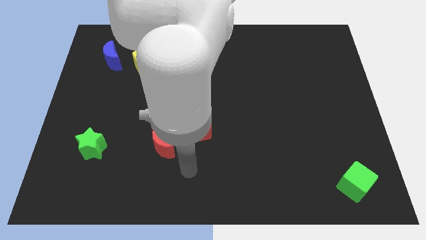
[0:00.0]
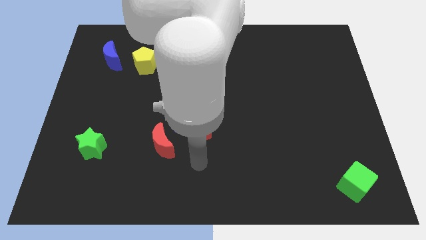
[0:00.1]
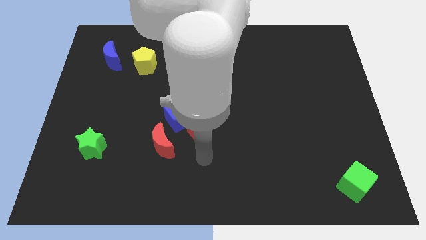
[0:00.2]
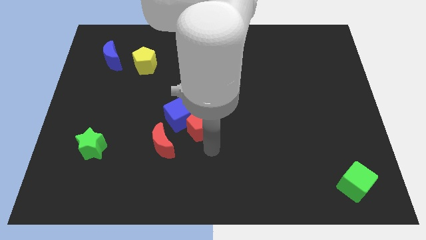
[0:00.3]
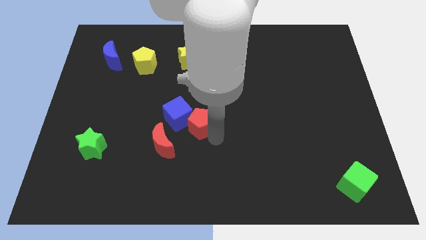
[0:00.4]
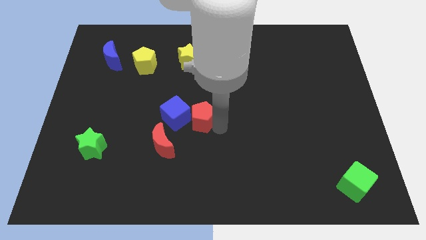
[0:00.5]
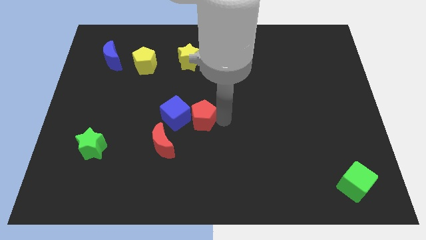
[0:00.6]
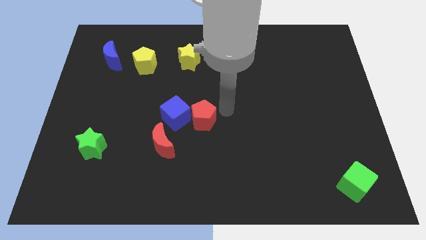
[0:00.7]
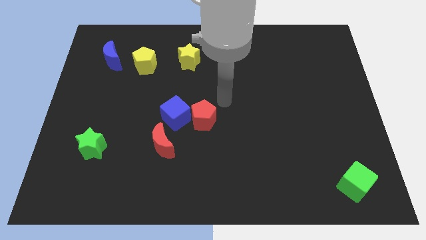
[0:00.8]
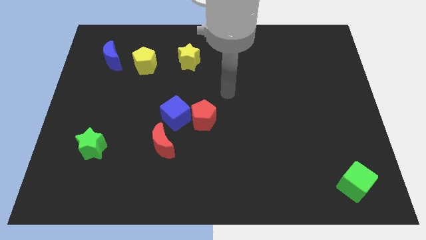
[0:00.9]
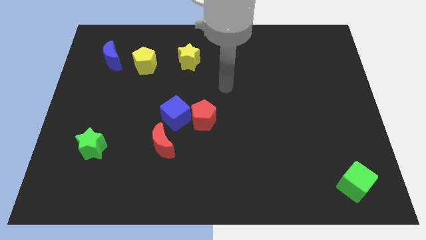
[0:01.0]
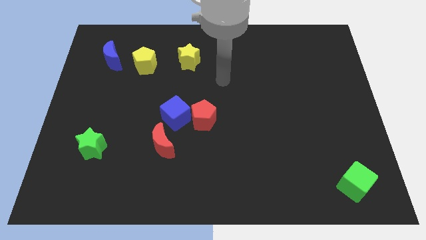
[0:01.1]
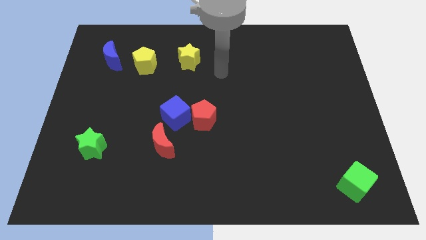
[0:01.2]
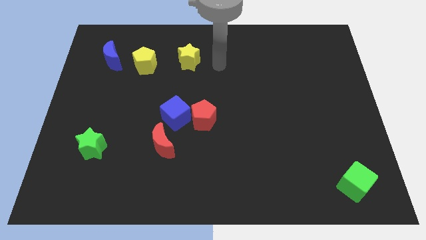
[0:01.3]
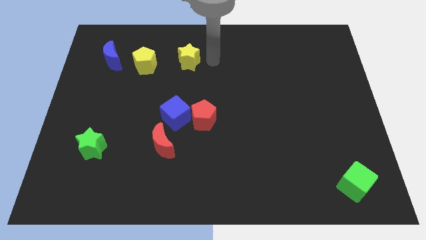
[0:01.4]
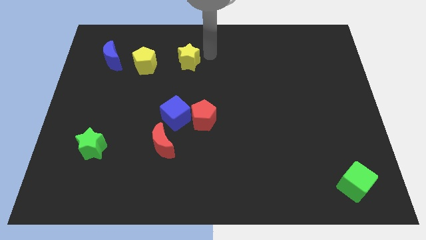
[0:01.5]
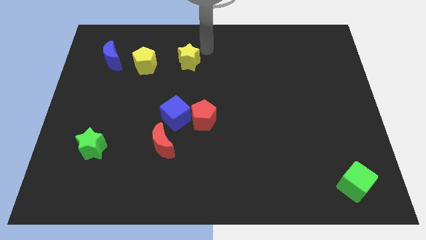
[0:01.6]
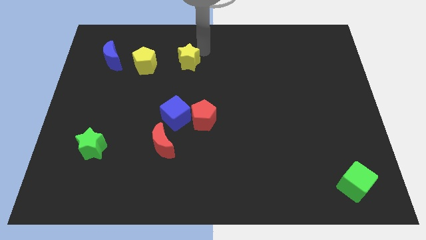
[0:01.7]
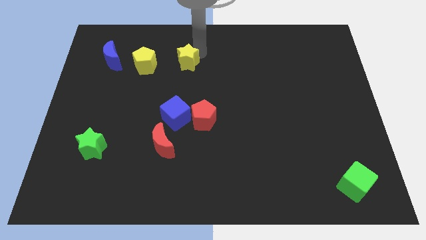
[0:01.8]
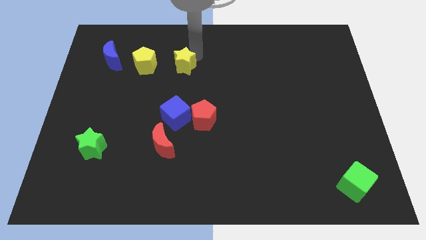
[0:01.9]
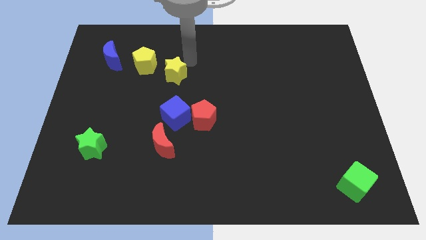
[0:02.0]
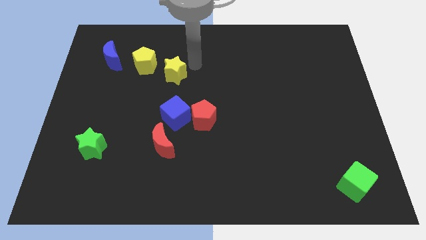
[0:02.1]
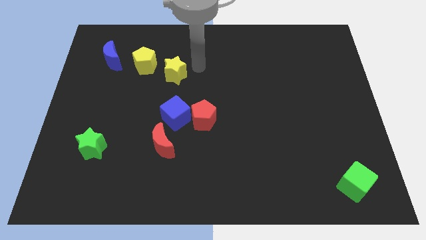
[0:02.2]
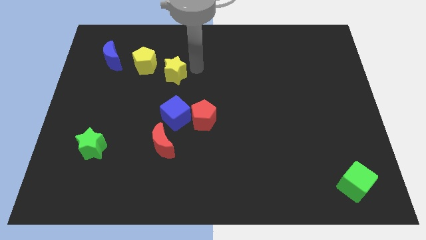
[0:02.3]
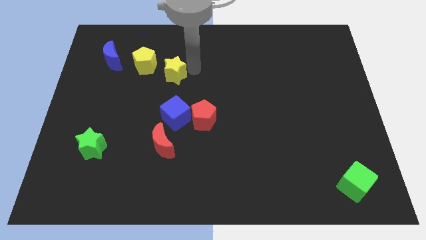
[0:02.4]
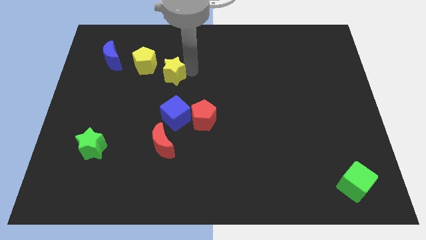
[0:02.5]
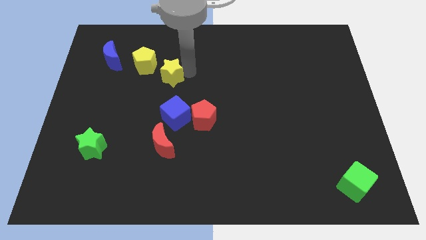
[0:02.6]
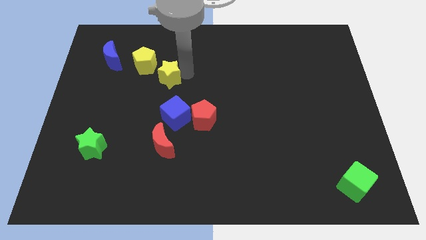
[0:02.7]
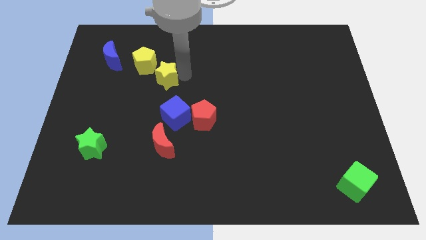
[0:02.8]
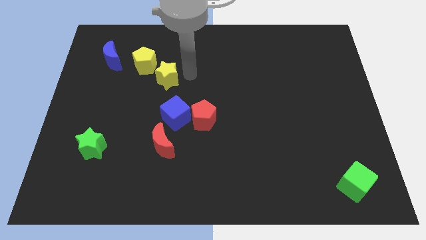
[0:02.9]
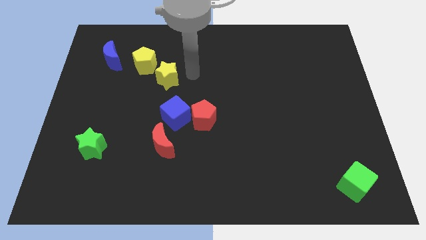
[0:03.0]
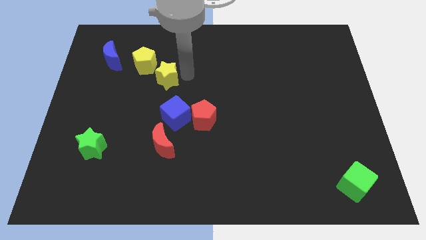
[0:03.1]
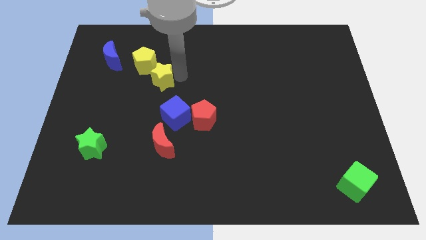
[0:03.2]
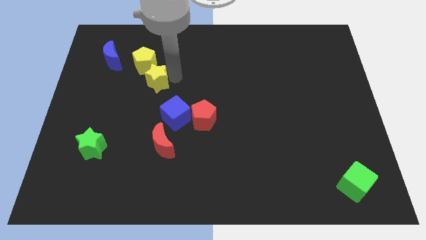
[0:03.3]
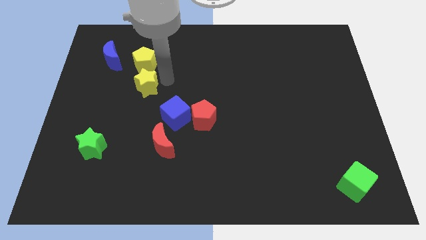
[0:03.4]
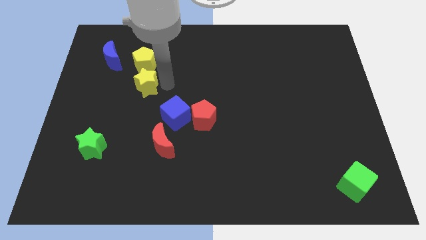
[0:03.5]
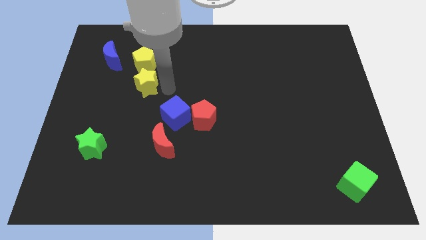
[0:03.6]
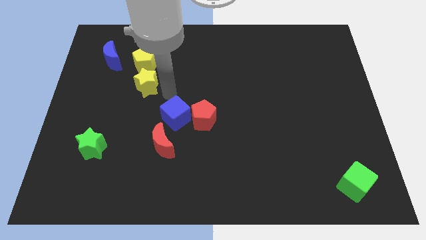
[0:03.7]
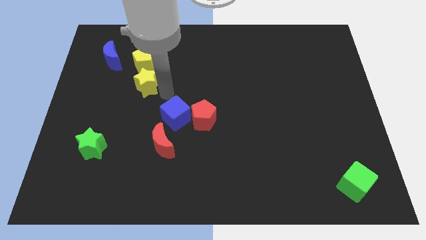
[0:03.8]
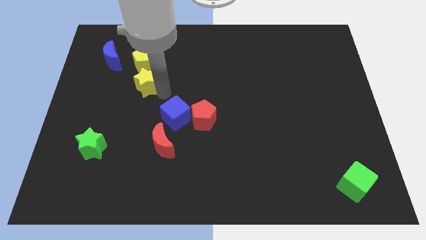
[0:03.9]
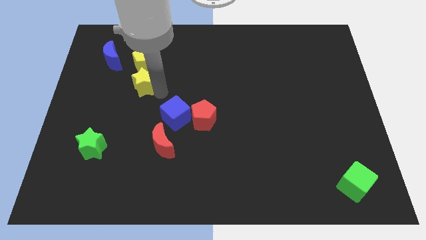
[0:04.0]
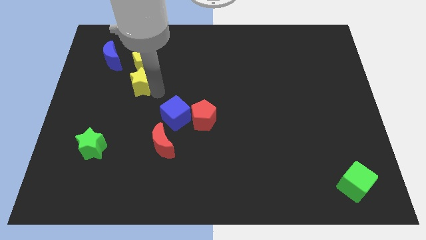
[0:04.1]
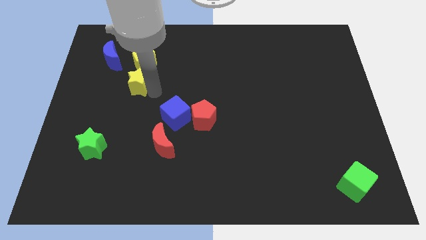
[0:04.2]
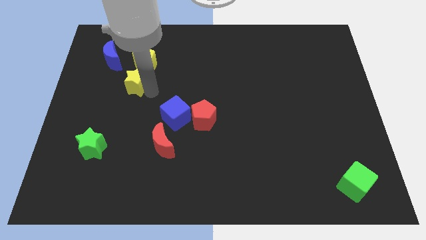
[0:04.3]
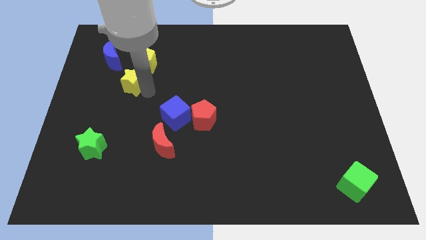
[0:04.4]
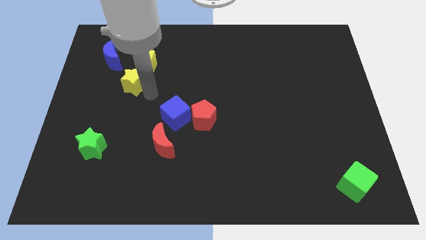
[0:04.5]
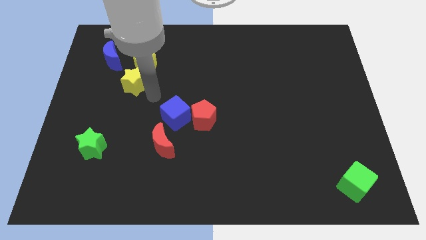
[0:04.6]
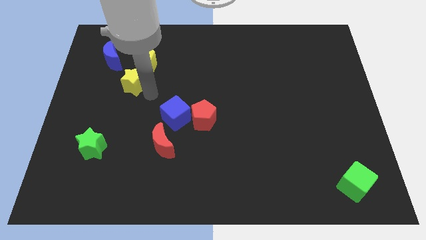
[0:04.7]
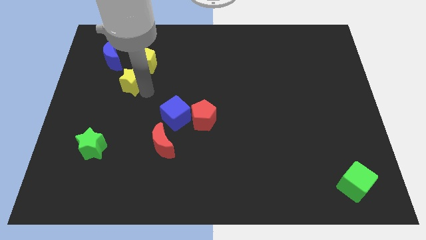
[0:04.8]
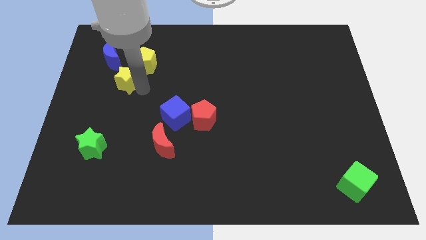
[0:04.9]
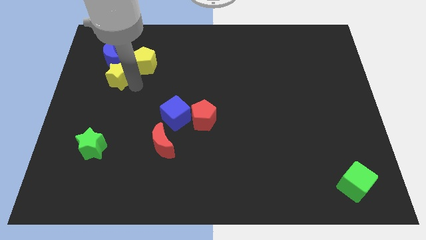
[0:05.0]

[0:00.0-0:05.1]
put the yellow star just left of the yellow pentagon

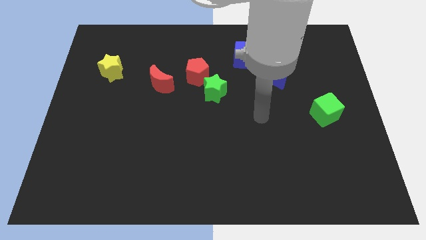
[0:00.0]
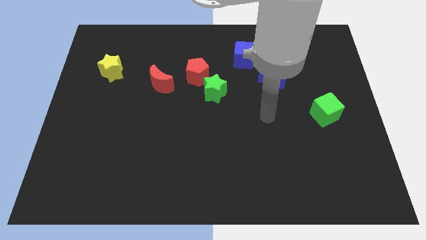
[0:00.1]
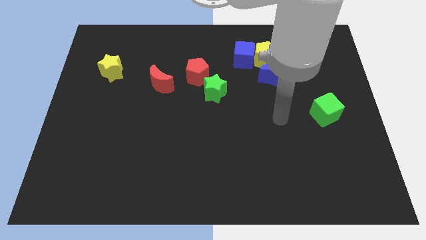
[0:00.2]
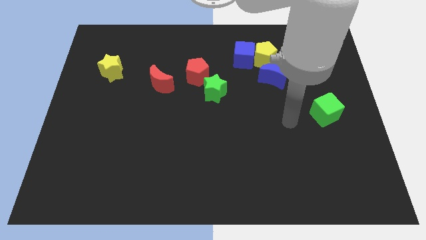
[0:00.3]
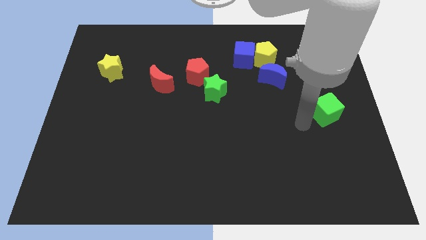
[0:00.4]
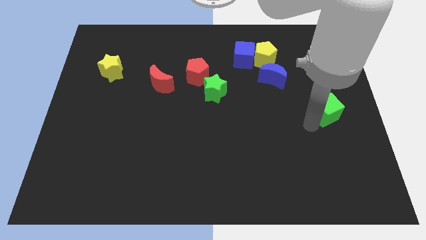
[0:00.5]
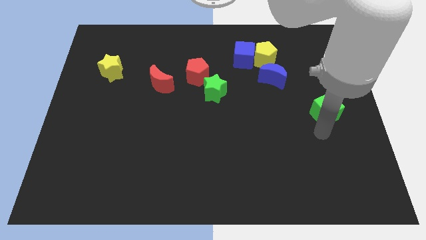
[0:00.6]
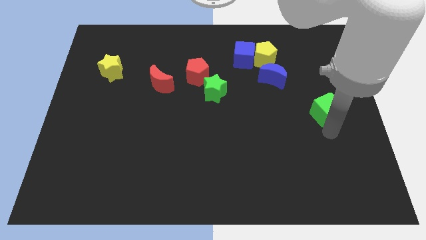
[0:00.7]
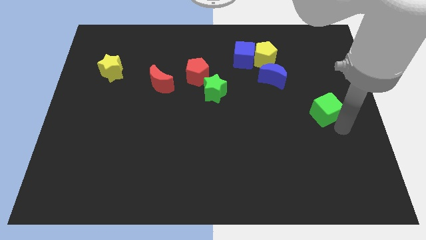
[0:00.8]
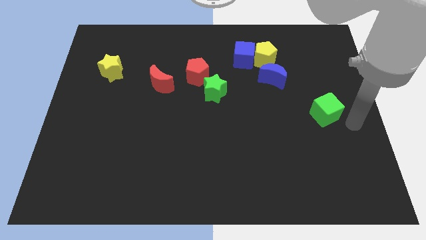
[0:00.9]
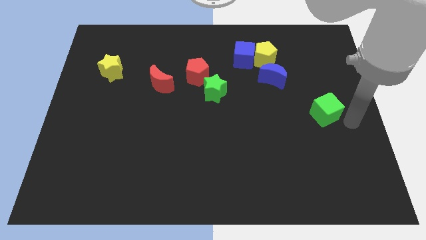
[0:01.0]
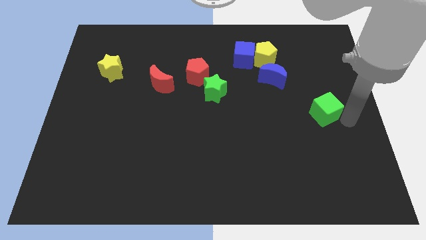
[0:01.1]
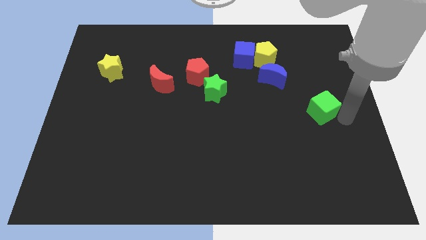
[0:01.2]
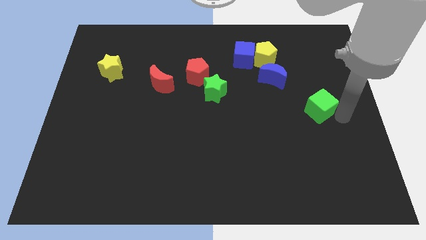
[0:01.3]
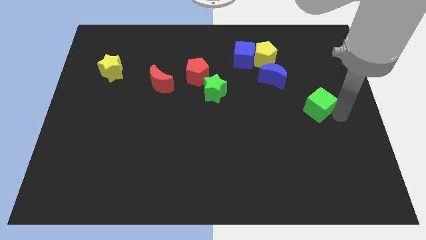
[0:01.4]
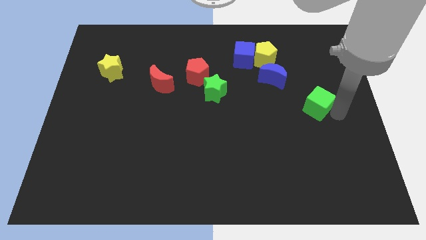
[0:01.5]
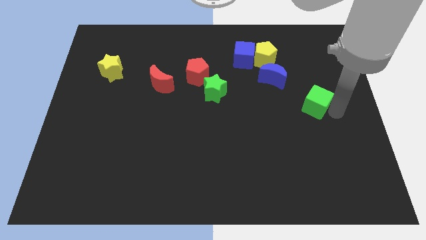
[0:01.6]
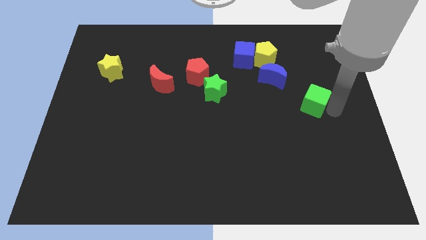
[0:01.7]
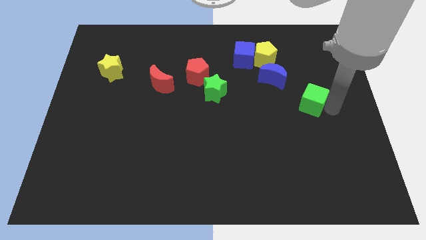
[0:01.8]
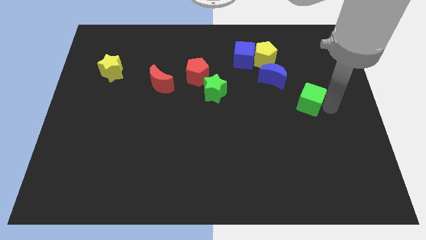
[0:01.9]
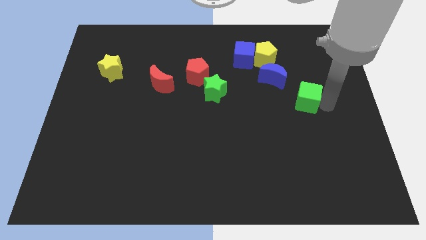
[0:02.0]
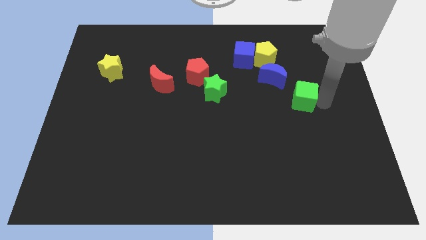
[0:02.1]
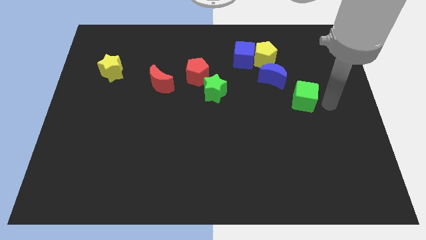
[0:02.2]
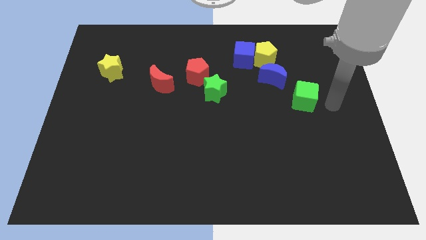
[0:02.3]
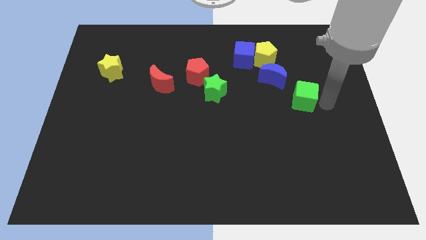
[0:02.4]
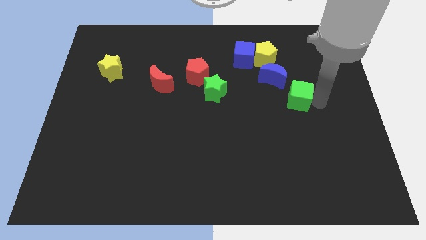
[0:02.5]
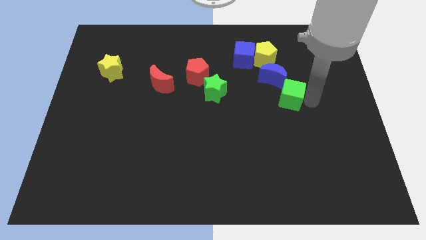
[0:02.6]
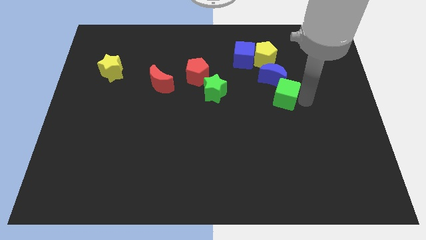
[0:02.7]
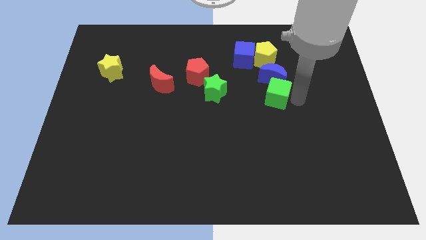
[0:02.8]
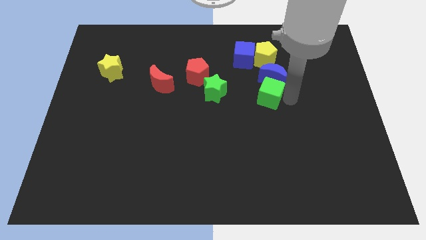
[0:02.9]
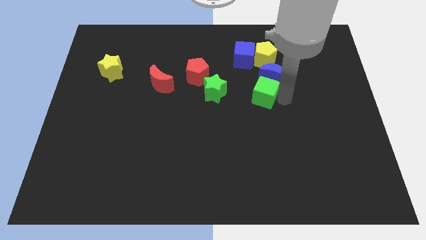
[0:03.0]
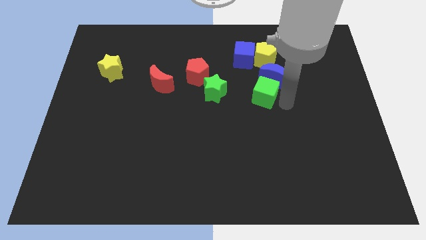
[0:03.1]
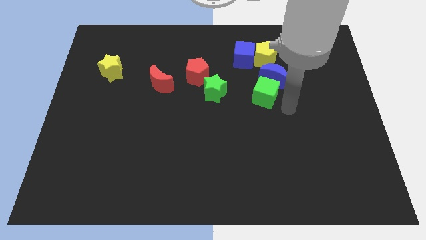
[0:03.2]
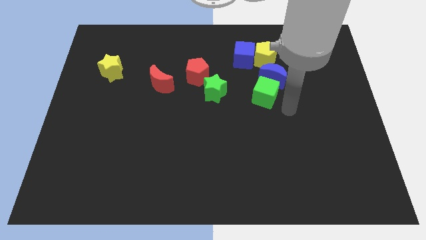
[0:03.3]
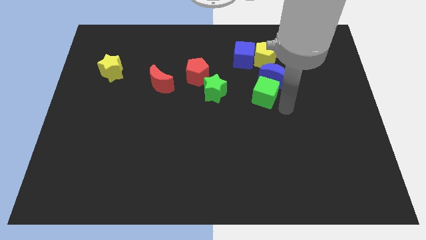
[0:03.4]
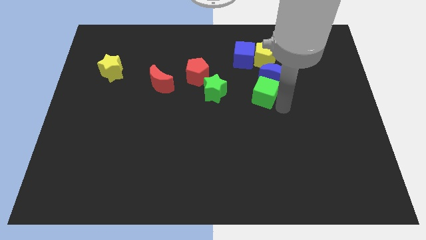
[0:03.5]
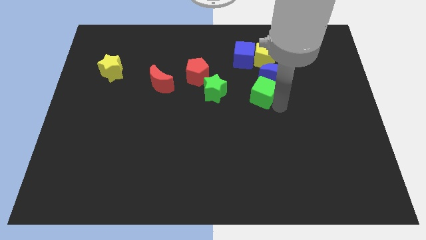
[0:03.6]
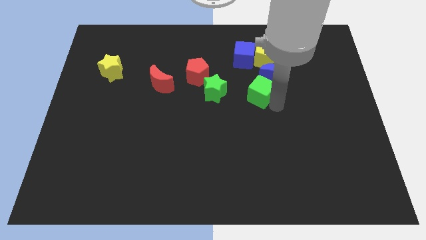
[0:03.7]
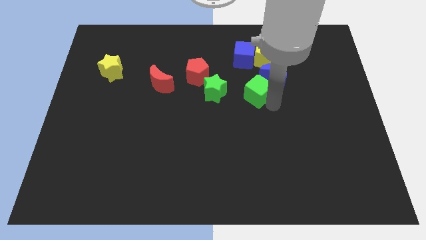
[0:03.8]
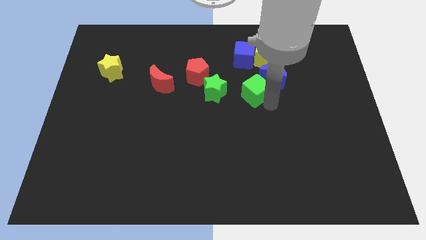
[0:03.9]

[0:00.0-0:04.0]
push the green cube to the left side of the blue moon
